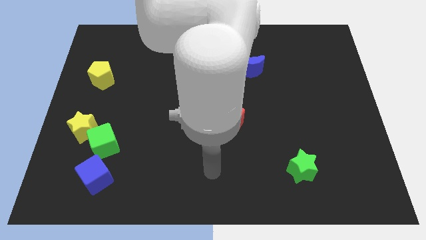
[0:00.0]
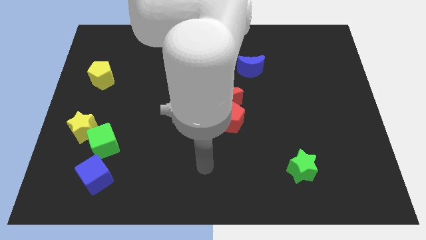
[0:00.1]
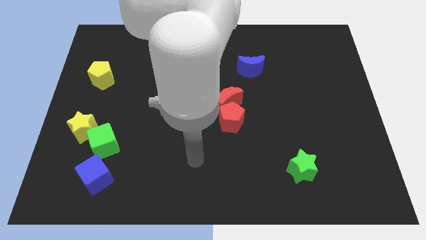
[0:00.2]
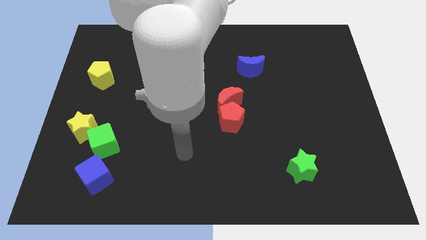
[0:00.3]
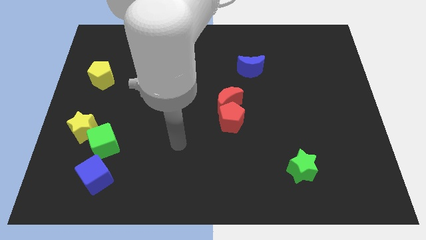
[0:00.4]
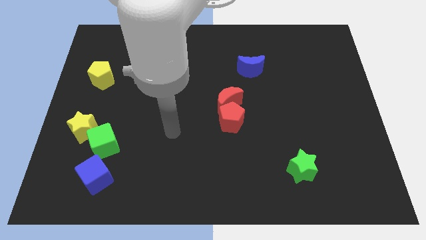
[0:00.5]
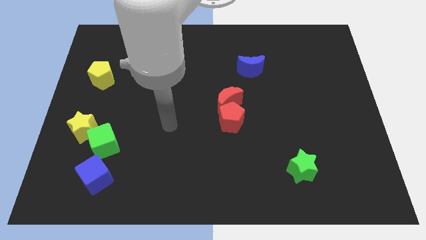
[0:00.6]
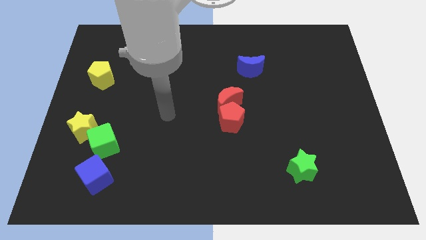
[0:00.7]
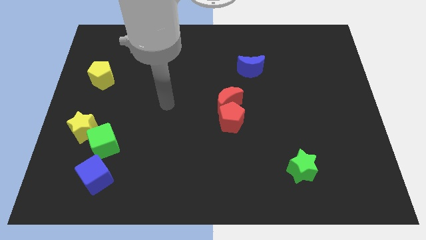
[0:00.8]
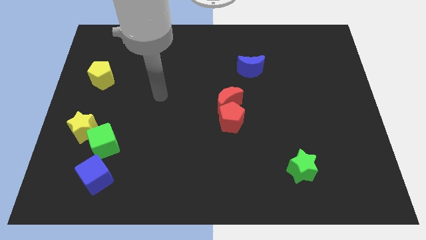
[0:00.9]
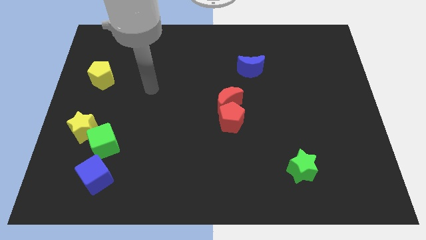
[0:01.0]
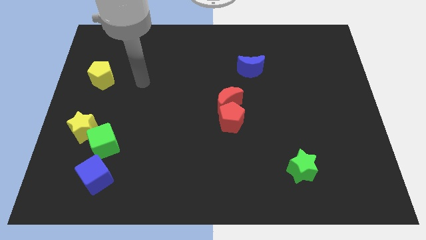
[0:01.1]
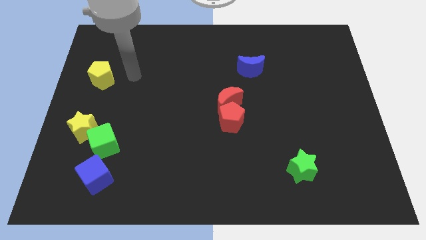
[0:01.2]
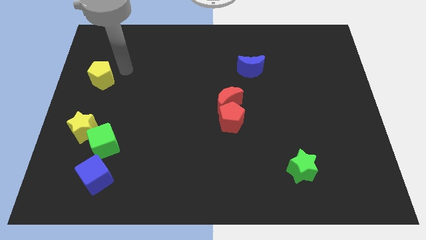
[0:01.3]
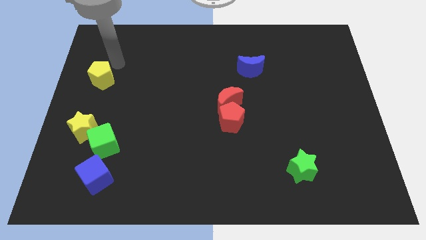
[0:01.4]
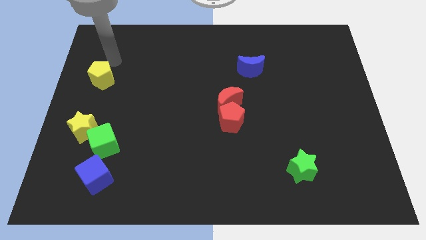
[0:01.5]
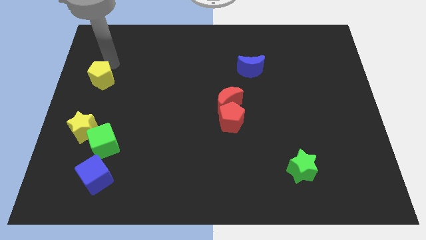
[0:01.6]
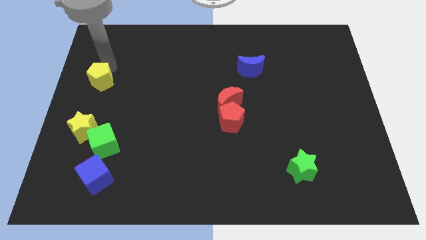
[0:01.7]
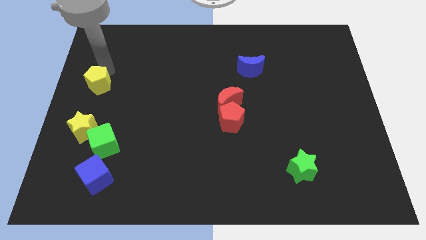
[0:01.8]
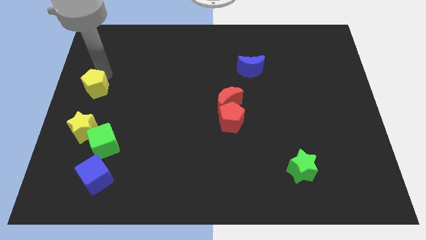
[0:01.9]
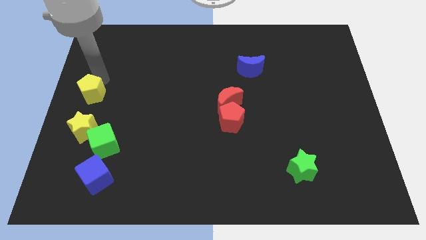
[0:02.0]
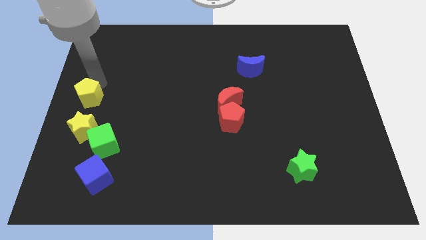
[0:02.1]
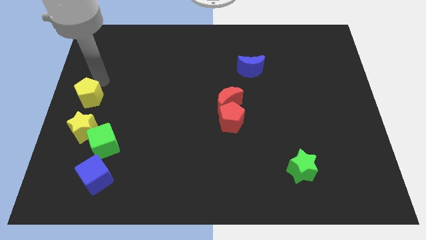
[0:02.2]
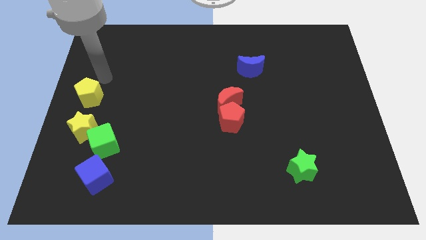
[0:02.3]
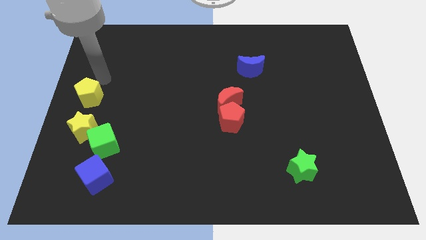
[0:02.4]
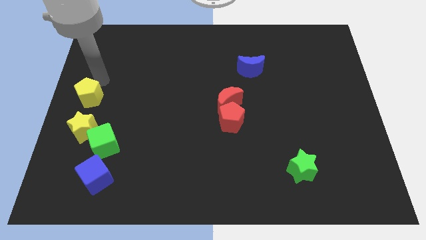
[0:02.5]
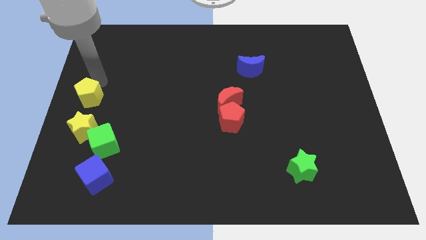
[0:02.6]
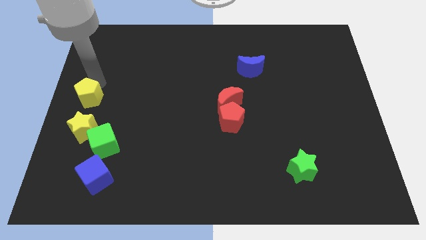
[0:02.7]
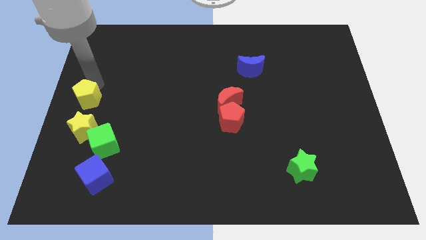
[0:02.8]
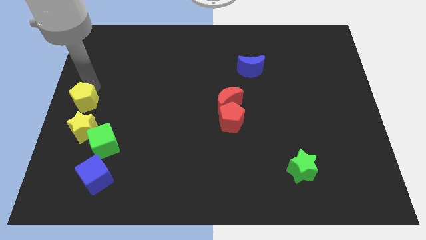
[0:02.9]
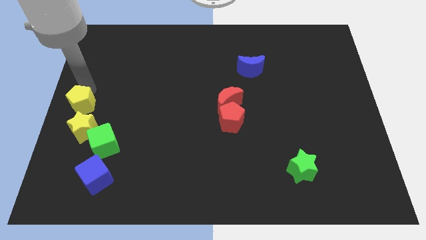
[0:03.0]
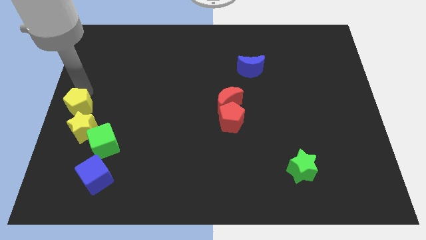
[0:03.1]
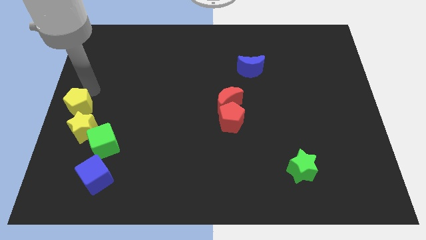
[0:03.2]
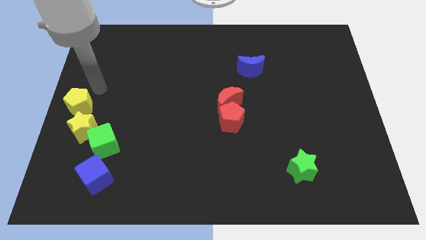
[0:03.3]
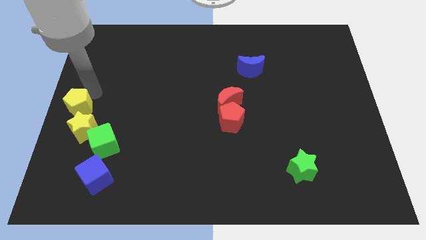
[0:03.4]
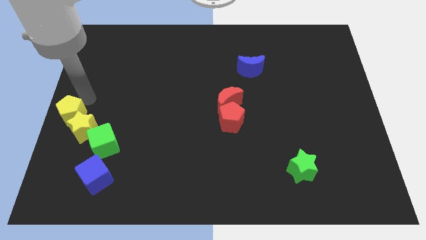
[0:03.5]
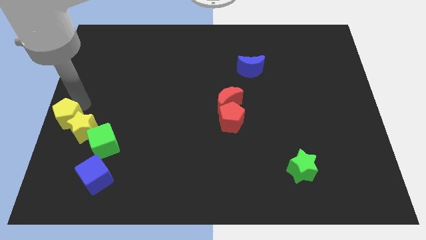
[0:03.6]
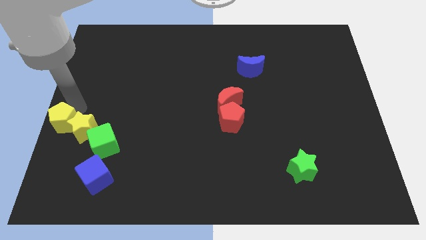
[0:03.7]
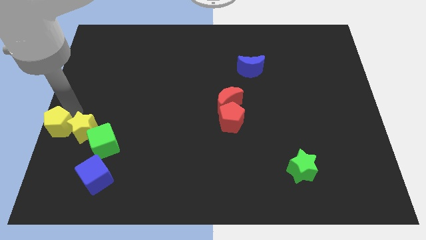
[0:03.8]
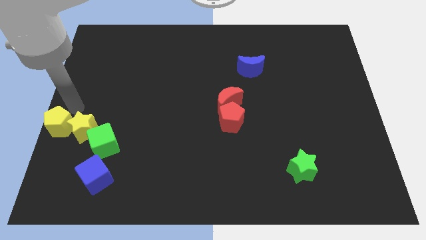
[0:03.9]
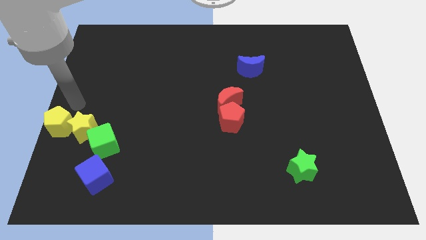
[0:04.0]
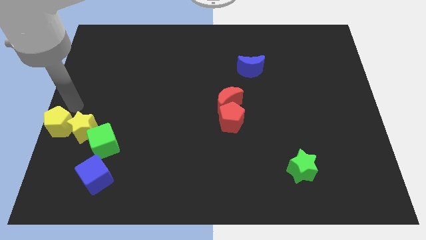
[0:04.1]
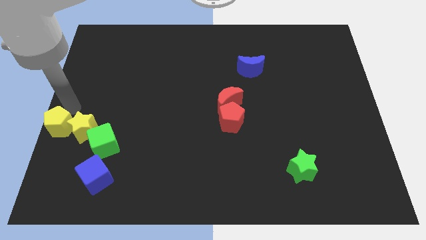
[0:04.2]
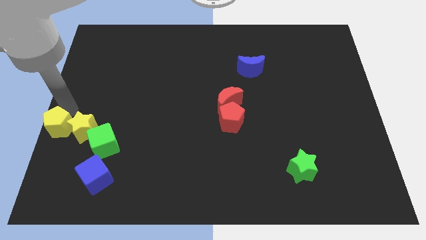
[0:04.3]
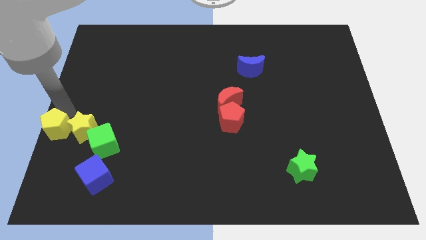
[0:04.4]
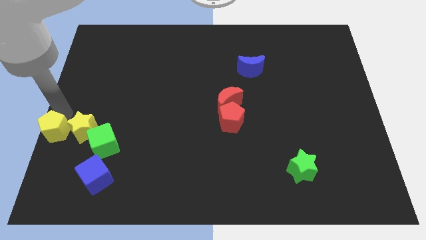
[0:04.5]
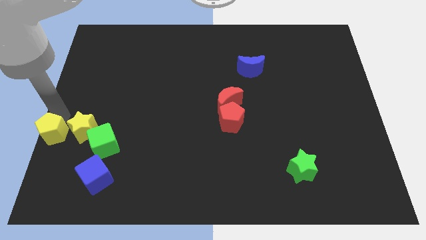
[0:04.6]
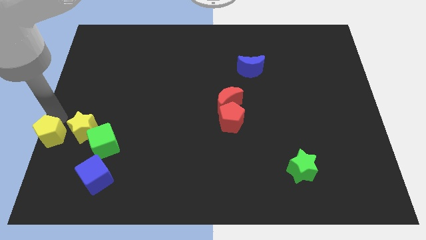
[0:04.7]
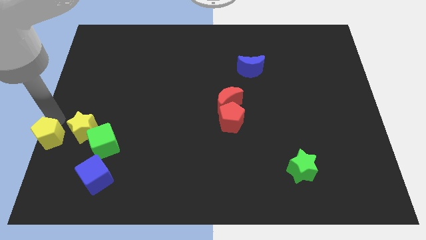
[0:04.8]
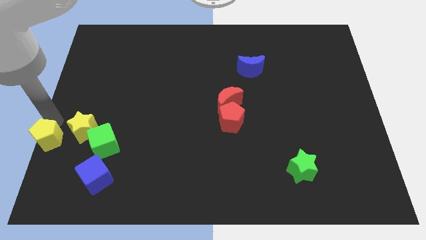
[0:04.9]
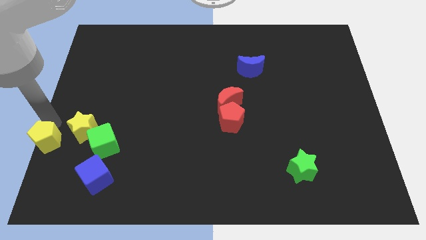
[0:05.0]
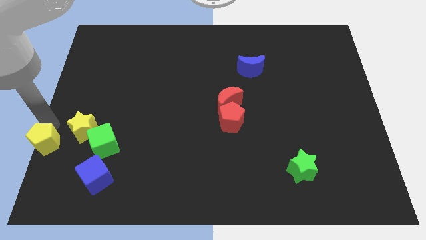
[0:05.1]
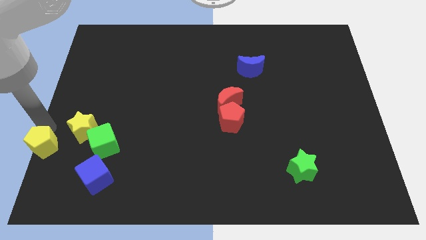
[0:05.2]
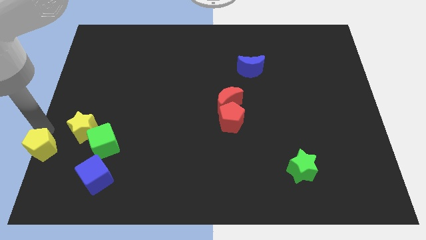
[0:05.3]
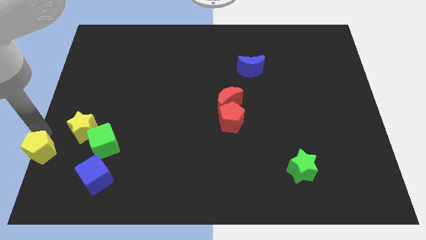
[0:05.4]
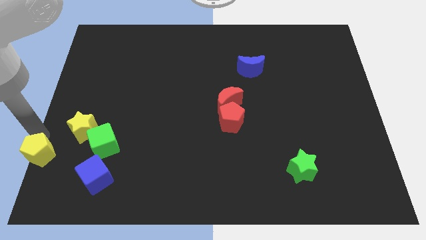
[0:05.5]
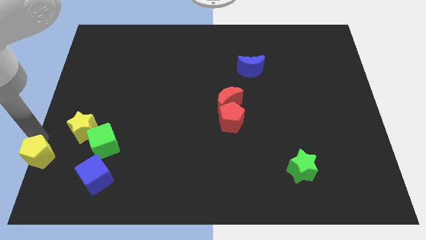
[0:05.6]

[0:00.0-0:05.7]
move the yellow pentagon to the lower left corner
